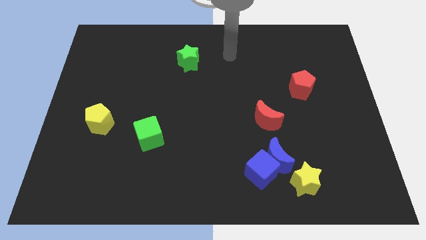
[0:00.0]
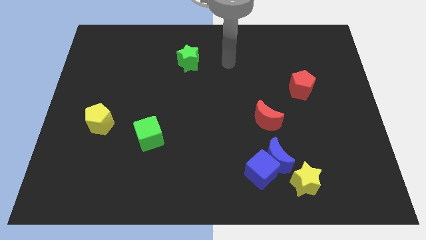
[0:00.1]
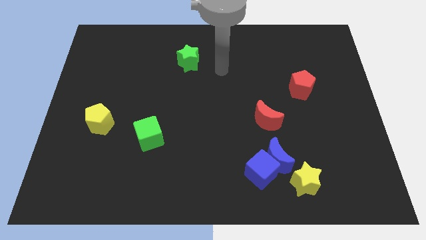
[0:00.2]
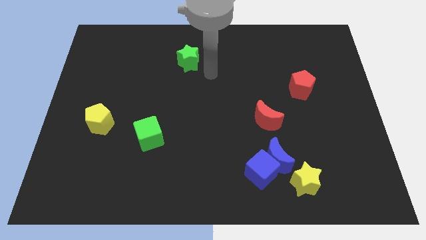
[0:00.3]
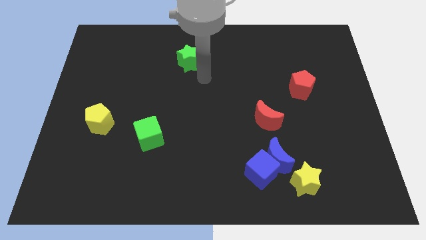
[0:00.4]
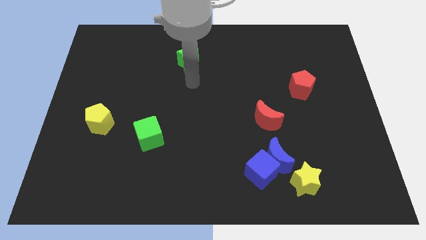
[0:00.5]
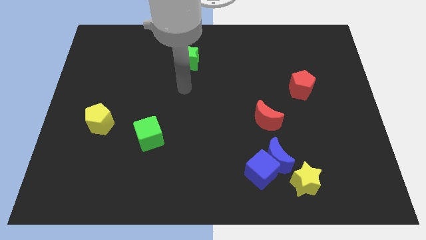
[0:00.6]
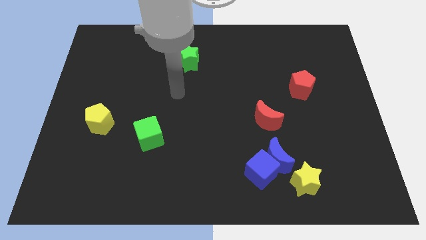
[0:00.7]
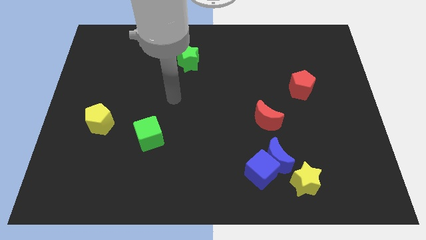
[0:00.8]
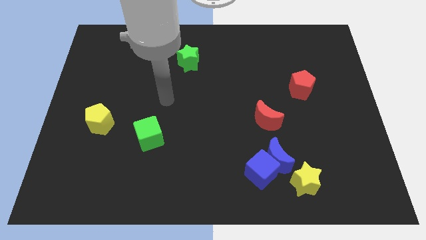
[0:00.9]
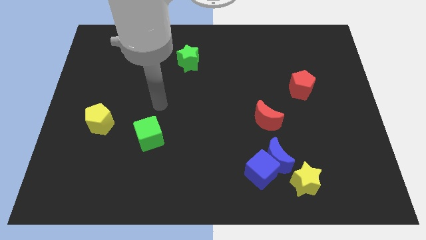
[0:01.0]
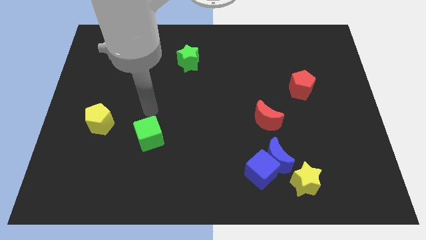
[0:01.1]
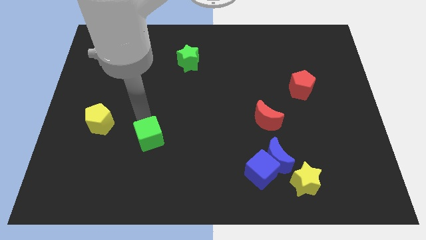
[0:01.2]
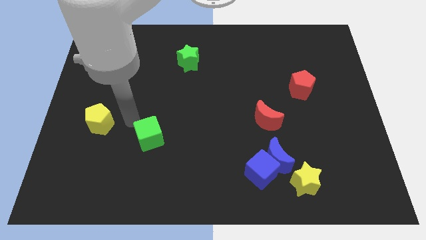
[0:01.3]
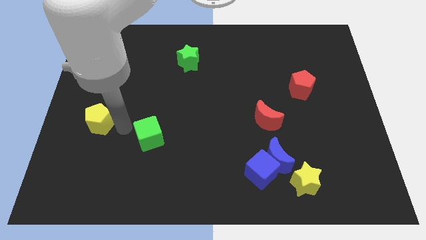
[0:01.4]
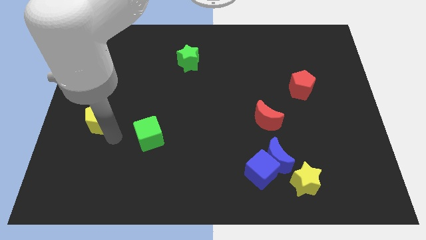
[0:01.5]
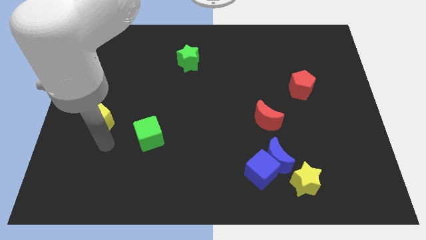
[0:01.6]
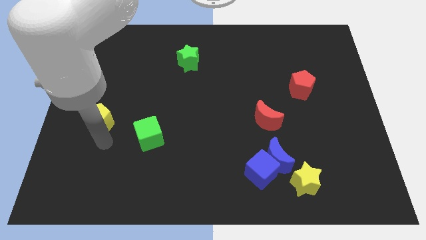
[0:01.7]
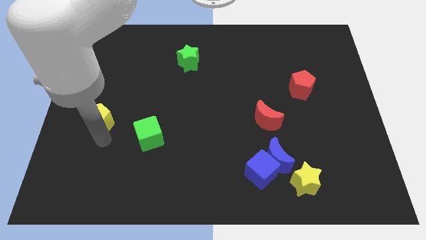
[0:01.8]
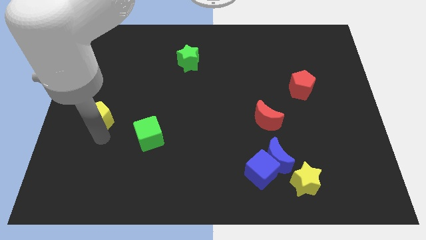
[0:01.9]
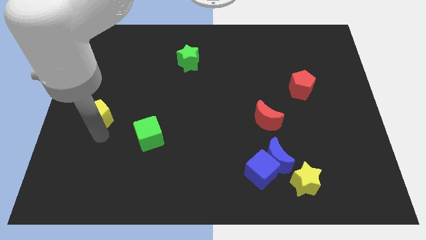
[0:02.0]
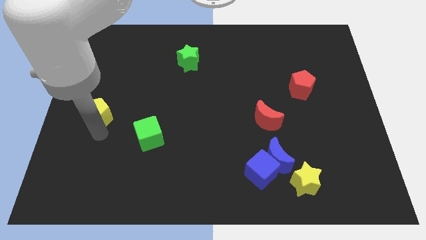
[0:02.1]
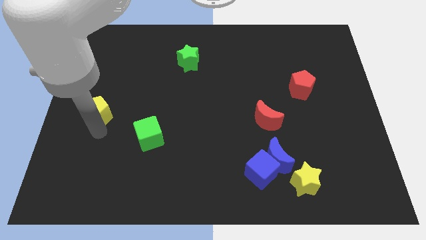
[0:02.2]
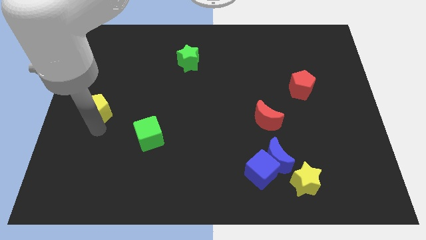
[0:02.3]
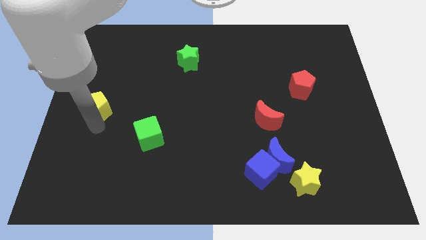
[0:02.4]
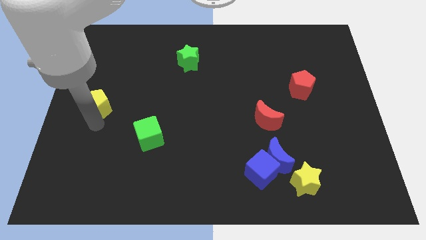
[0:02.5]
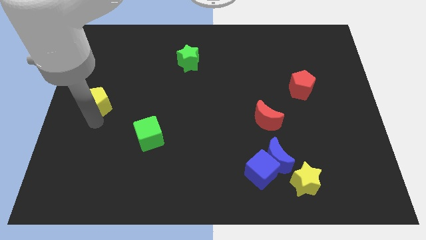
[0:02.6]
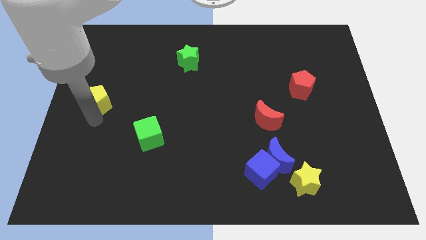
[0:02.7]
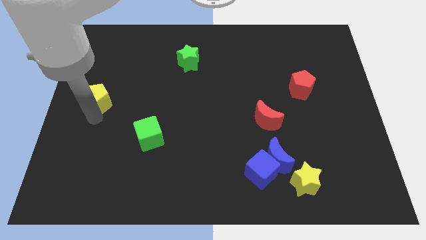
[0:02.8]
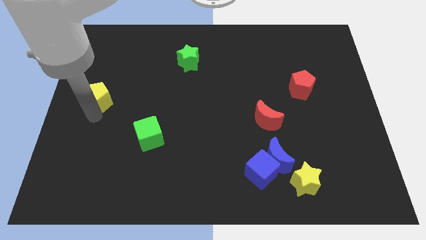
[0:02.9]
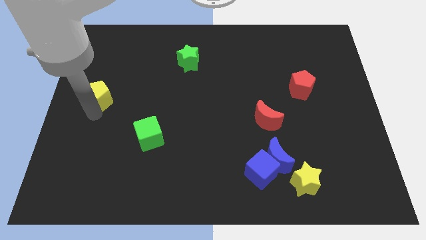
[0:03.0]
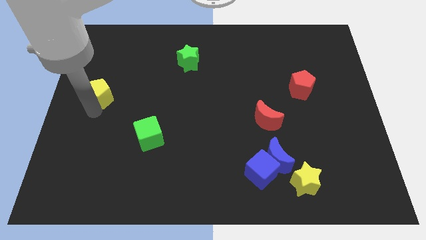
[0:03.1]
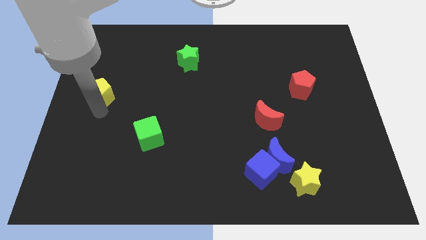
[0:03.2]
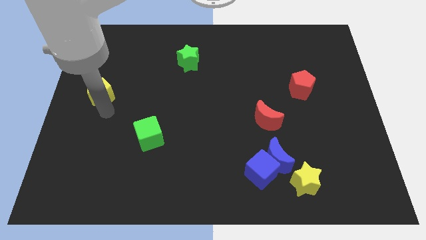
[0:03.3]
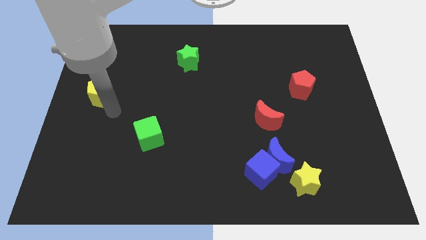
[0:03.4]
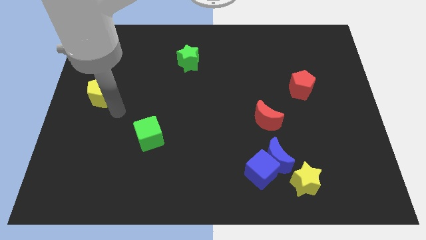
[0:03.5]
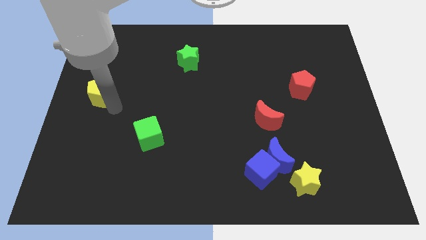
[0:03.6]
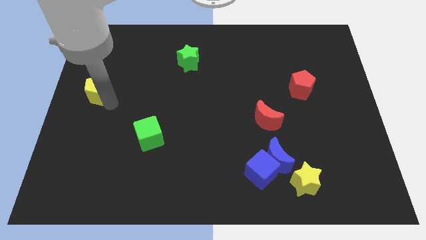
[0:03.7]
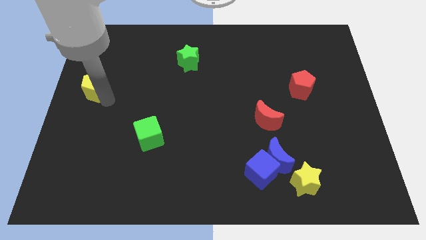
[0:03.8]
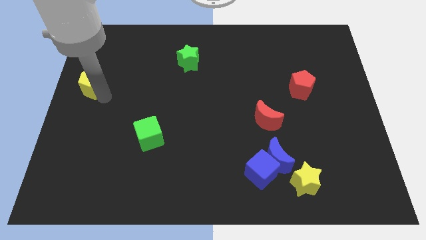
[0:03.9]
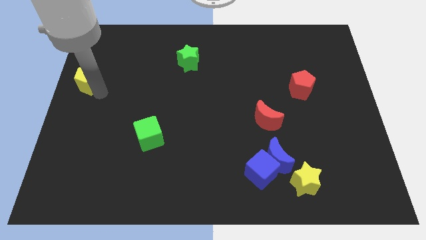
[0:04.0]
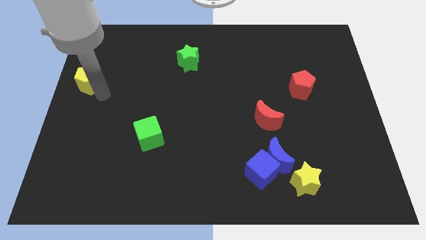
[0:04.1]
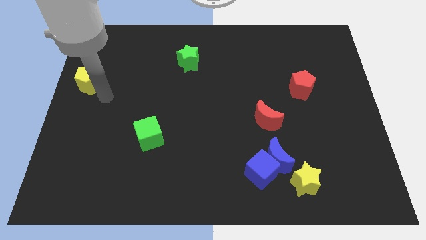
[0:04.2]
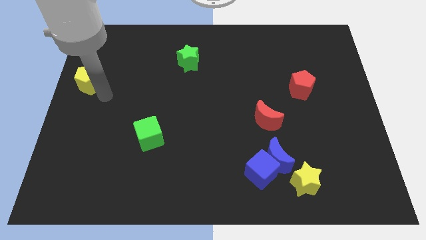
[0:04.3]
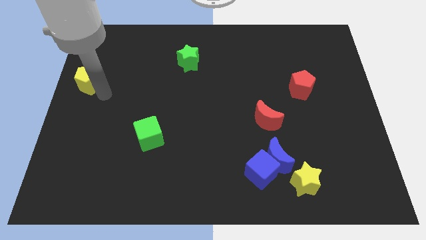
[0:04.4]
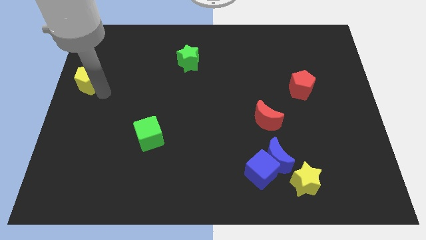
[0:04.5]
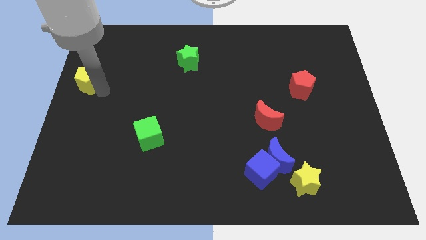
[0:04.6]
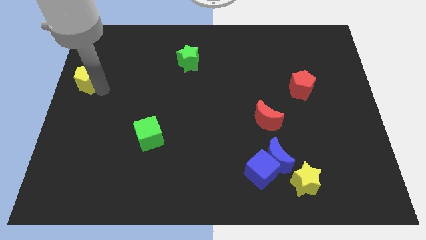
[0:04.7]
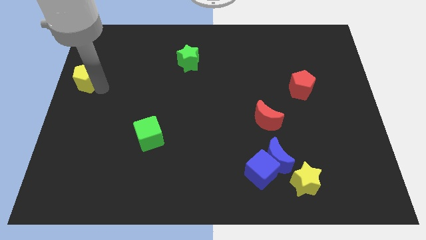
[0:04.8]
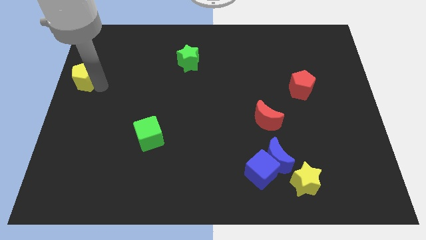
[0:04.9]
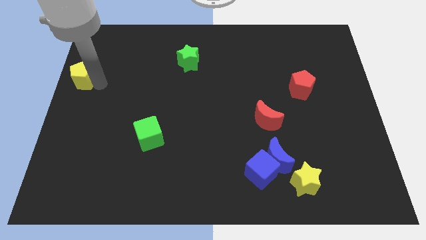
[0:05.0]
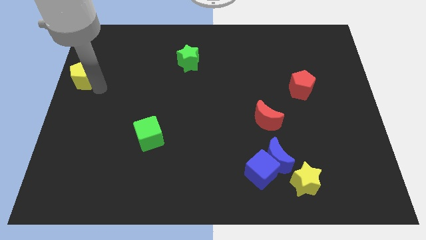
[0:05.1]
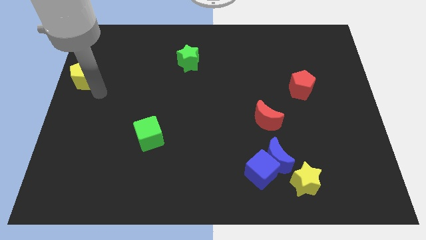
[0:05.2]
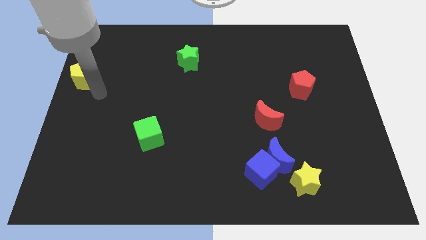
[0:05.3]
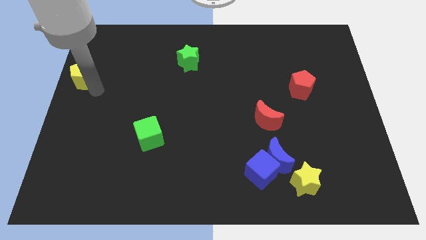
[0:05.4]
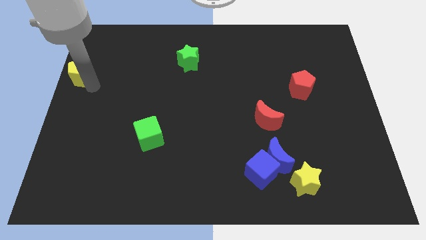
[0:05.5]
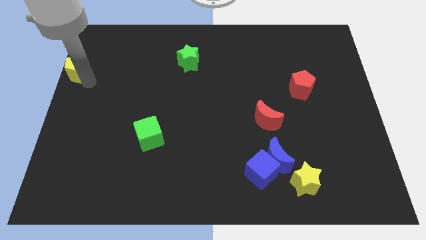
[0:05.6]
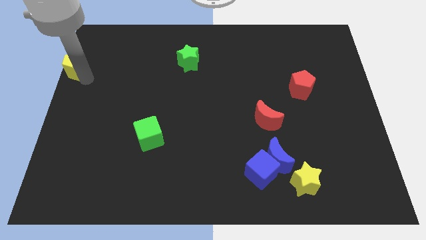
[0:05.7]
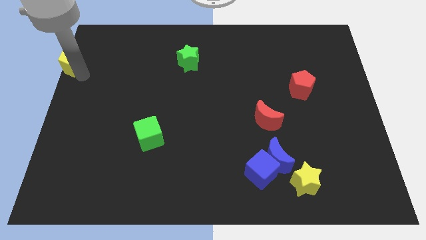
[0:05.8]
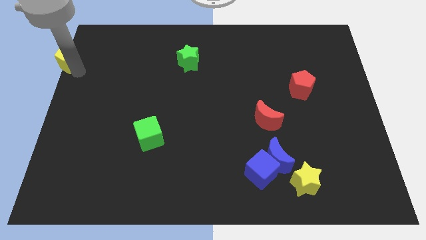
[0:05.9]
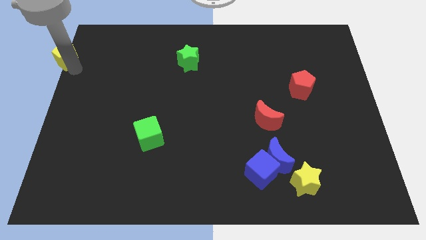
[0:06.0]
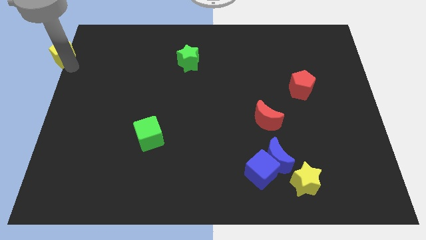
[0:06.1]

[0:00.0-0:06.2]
push the yellow pentagon to the top left
